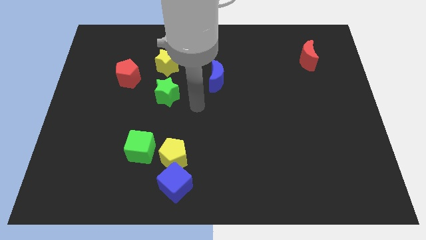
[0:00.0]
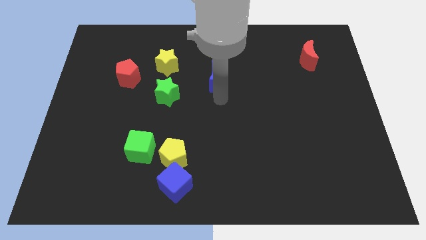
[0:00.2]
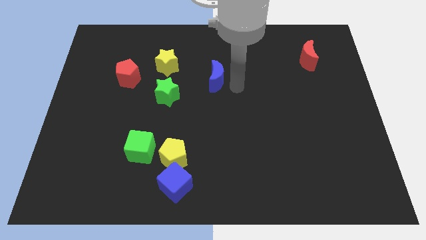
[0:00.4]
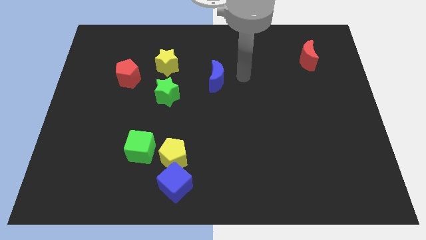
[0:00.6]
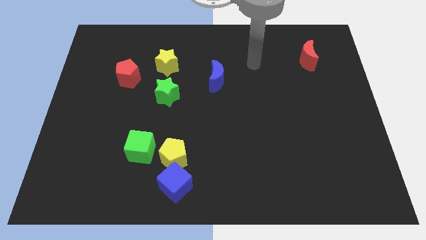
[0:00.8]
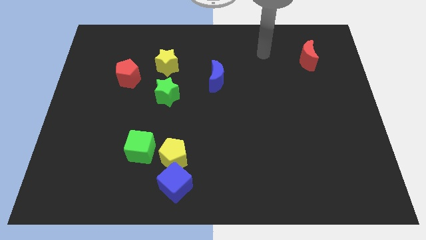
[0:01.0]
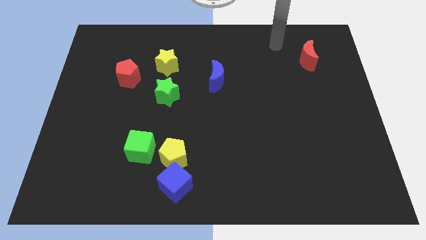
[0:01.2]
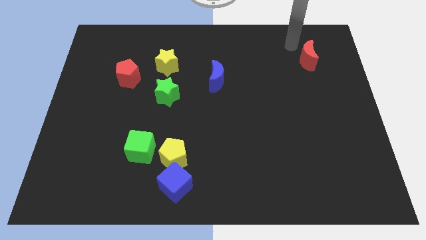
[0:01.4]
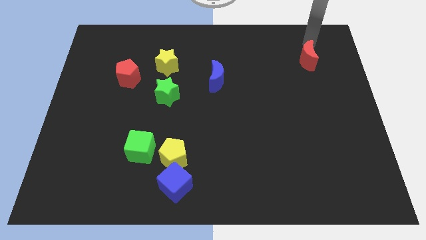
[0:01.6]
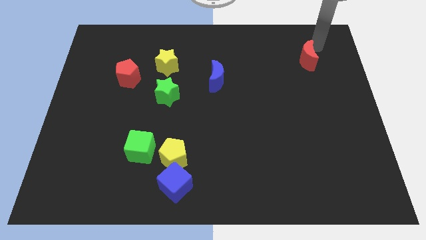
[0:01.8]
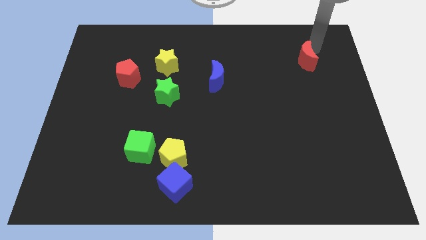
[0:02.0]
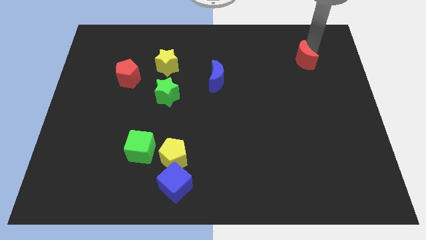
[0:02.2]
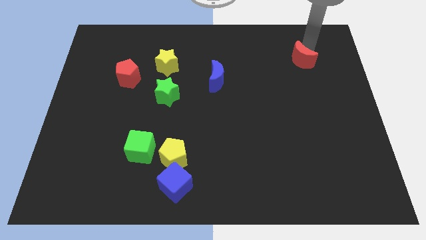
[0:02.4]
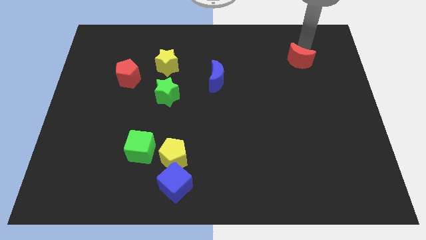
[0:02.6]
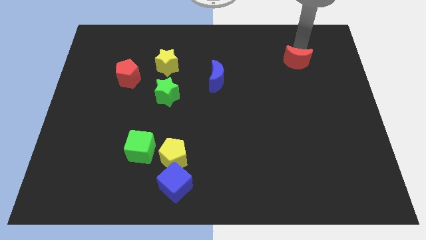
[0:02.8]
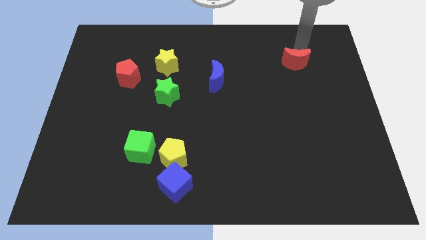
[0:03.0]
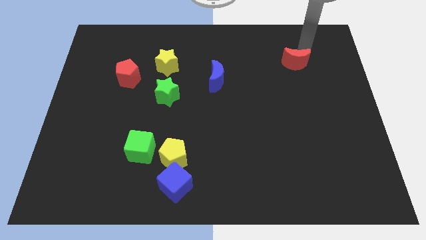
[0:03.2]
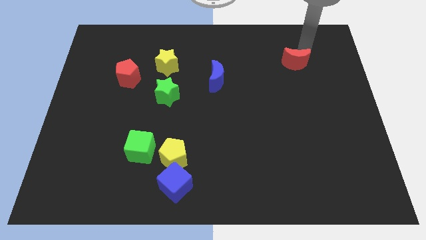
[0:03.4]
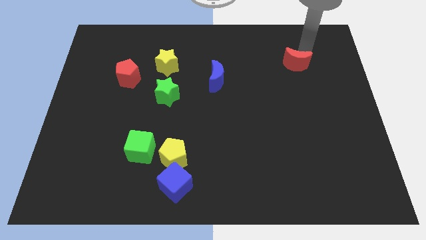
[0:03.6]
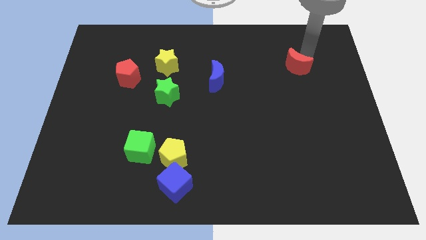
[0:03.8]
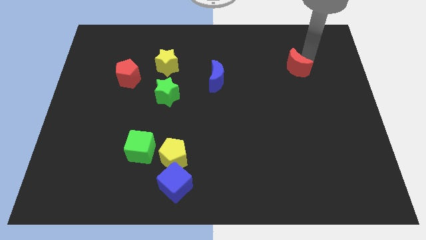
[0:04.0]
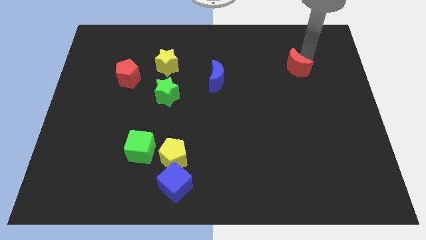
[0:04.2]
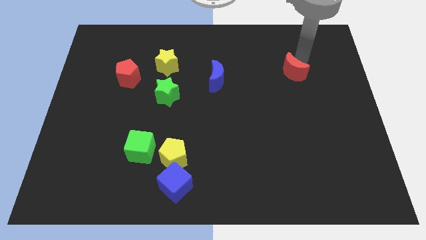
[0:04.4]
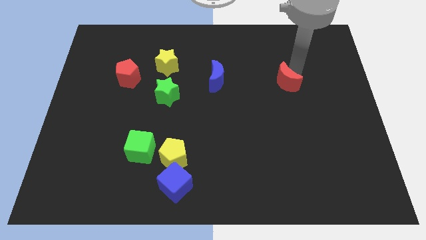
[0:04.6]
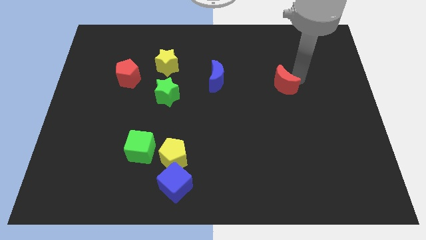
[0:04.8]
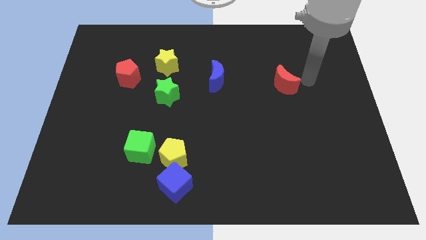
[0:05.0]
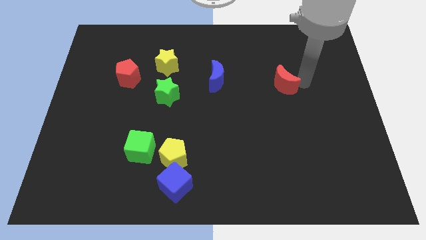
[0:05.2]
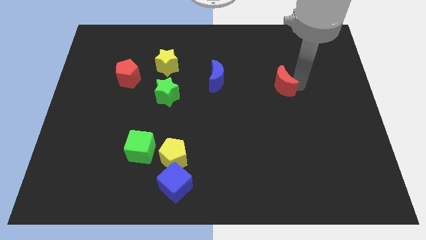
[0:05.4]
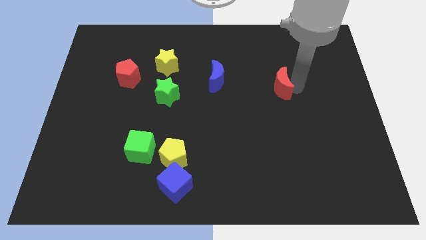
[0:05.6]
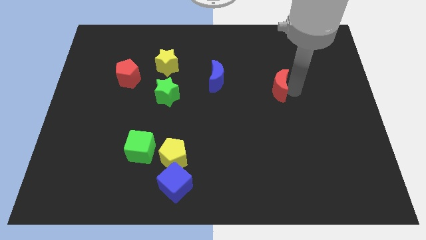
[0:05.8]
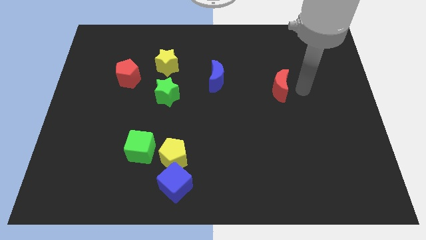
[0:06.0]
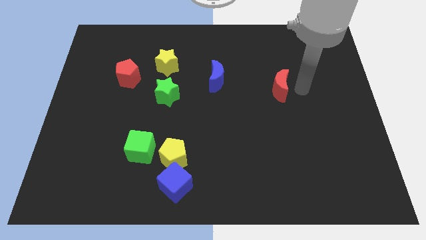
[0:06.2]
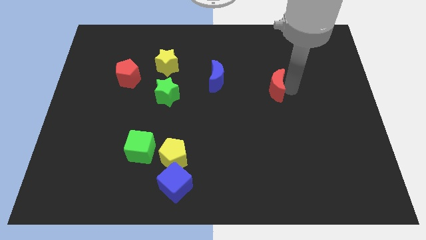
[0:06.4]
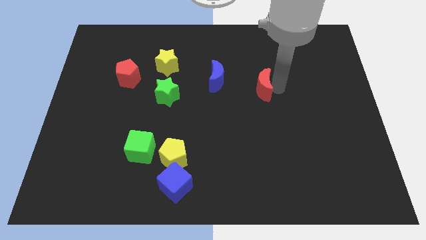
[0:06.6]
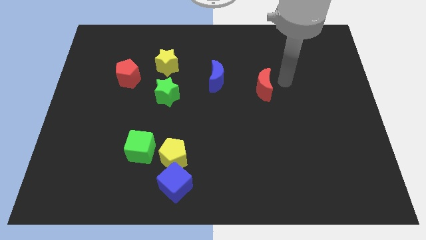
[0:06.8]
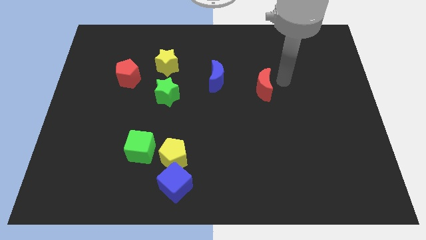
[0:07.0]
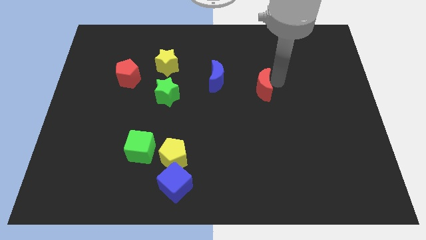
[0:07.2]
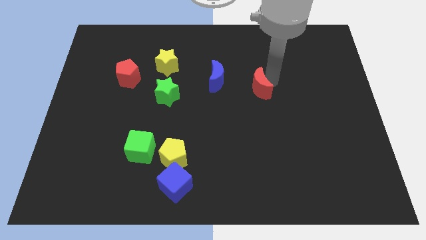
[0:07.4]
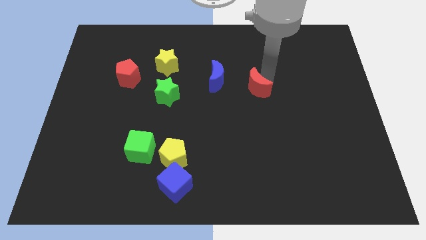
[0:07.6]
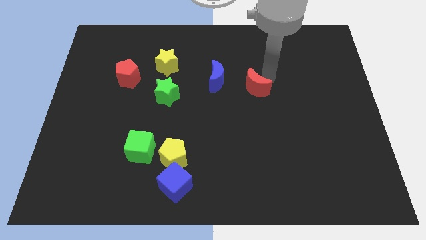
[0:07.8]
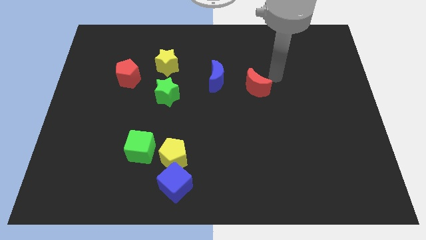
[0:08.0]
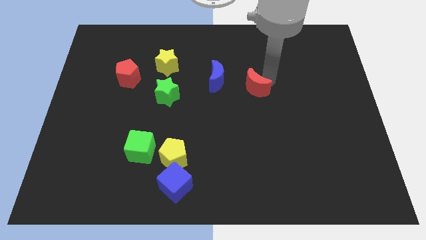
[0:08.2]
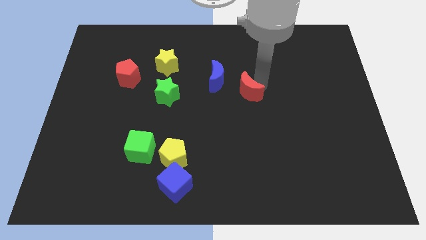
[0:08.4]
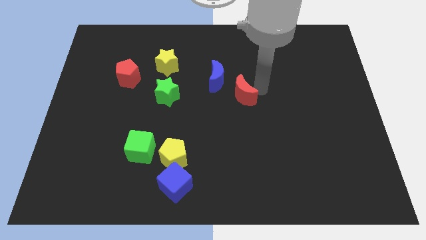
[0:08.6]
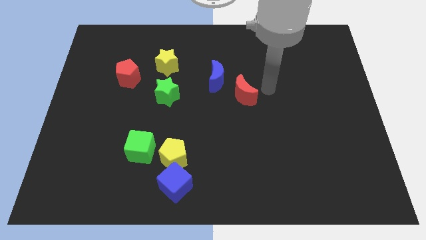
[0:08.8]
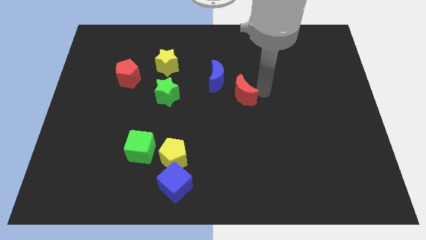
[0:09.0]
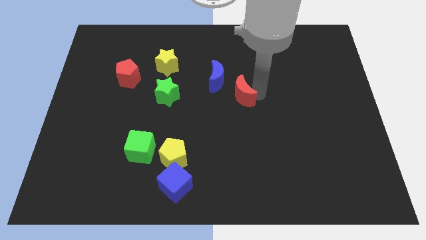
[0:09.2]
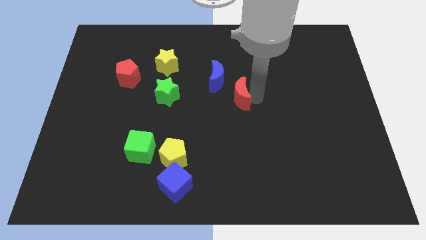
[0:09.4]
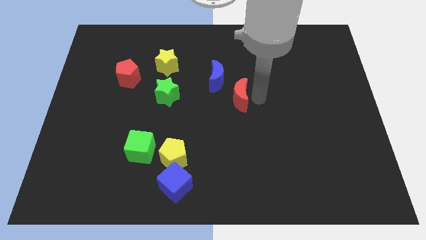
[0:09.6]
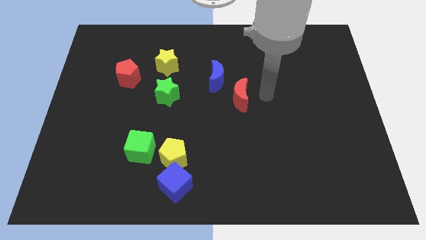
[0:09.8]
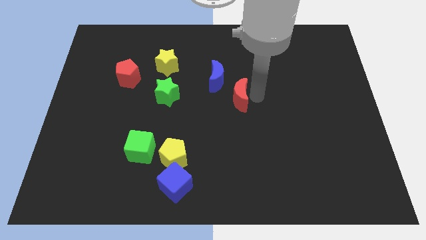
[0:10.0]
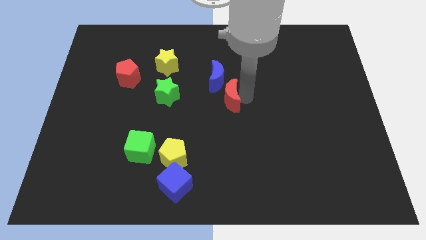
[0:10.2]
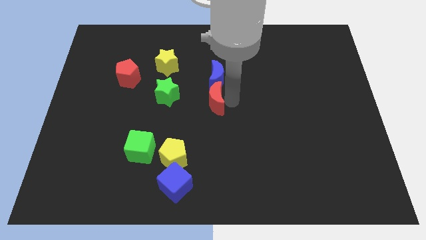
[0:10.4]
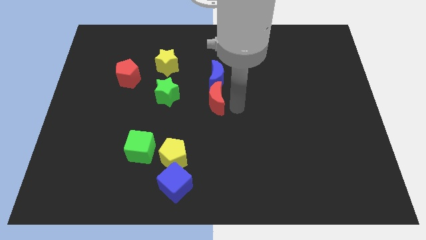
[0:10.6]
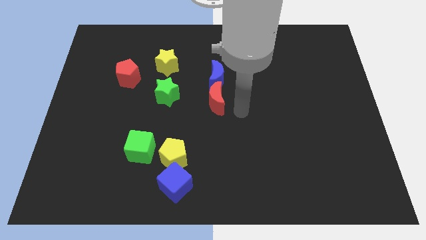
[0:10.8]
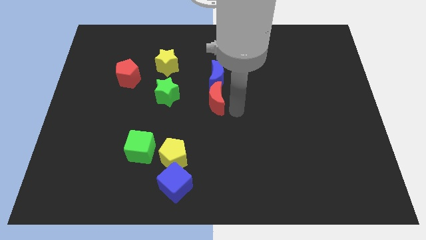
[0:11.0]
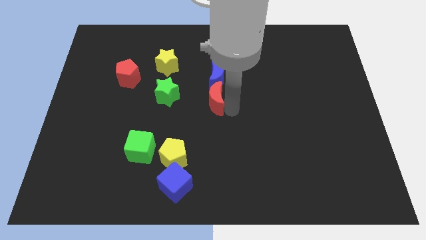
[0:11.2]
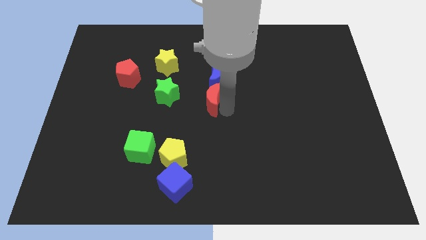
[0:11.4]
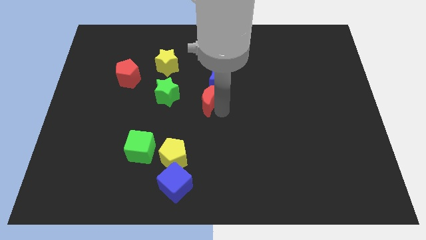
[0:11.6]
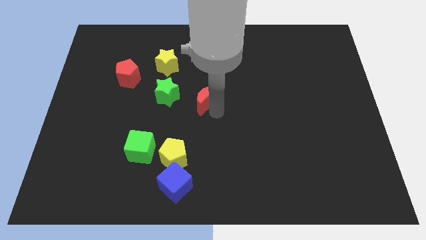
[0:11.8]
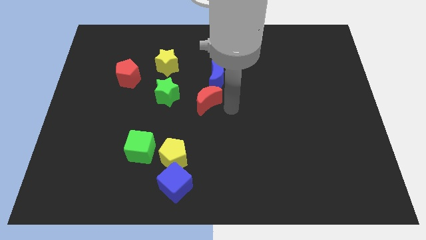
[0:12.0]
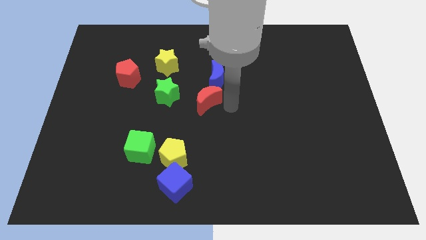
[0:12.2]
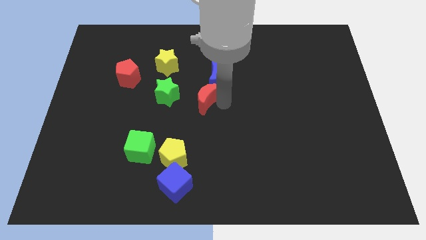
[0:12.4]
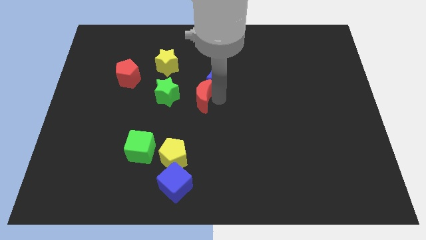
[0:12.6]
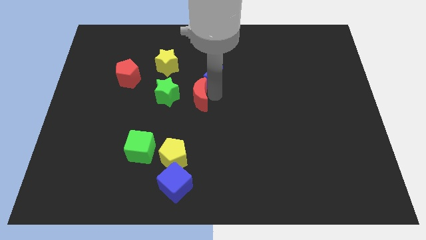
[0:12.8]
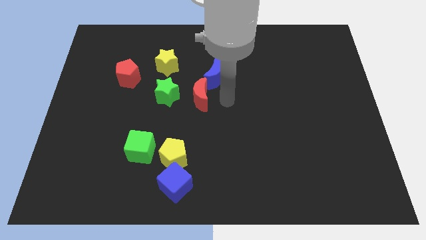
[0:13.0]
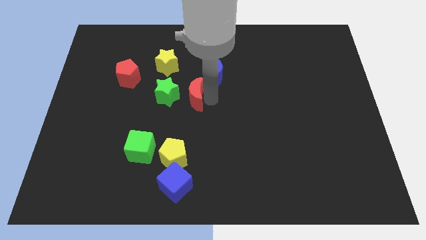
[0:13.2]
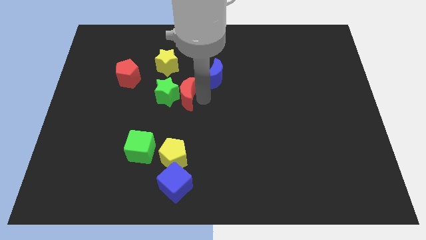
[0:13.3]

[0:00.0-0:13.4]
push the red moon to the green star

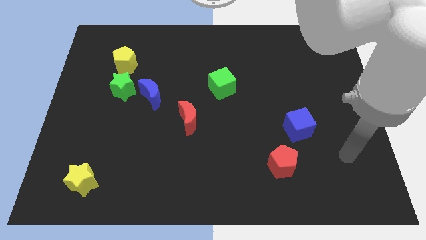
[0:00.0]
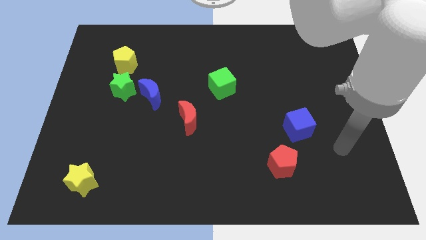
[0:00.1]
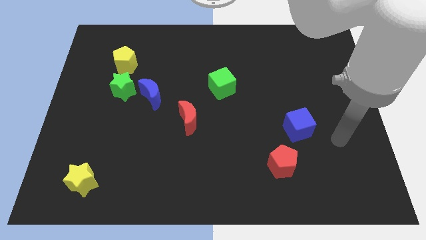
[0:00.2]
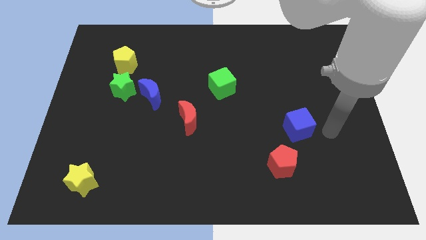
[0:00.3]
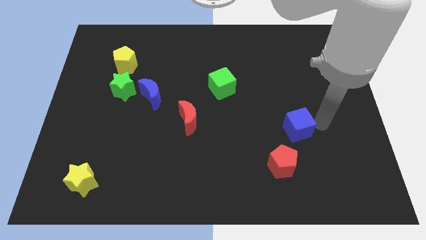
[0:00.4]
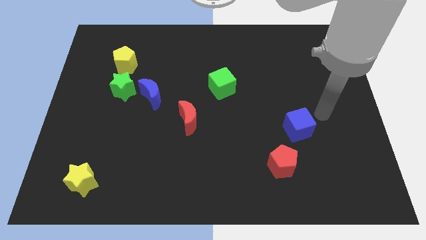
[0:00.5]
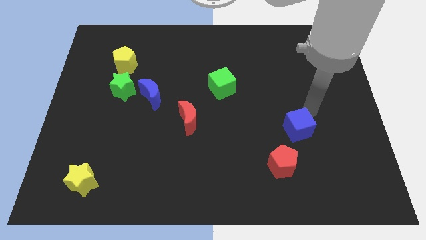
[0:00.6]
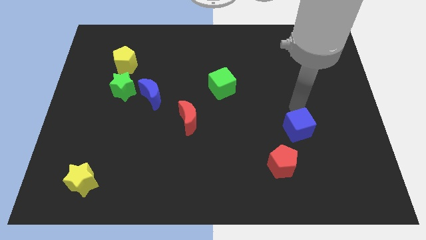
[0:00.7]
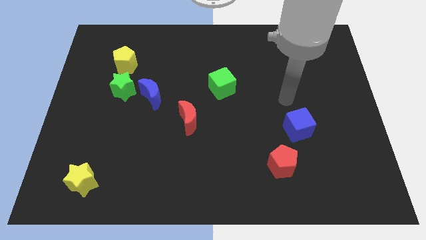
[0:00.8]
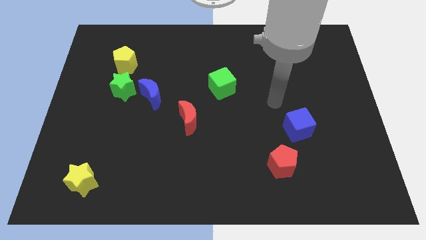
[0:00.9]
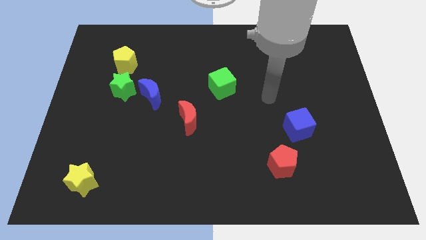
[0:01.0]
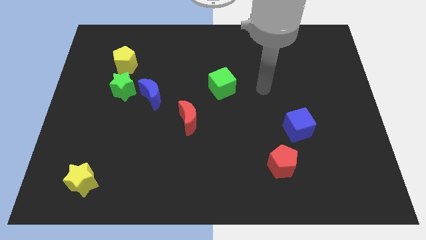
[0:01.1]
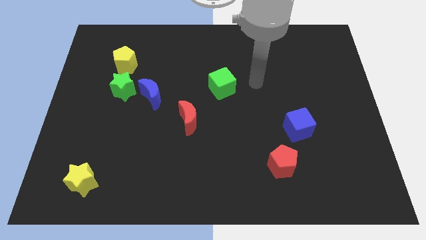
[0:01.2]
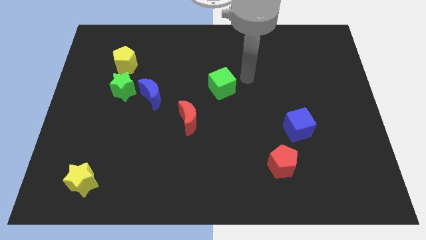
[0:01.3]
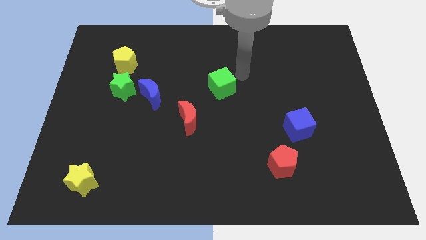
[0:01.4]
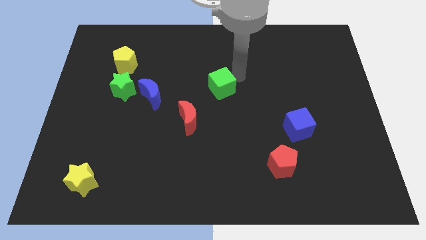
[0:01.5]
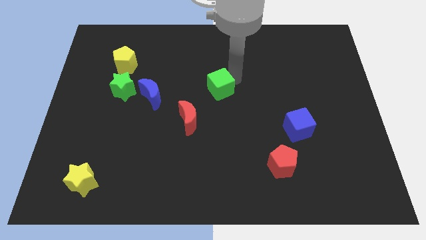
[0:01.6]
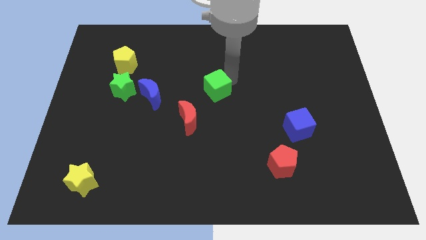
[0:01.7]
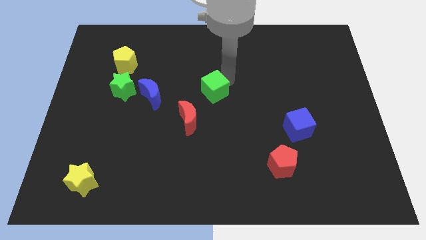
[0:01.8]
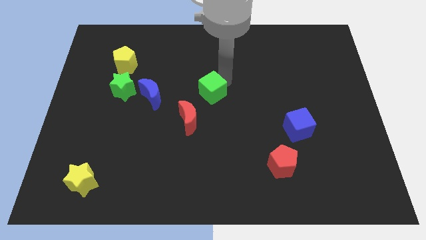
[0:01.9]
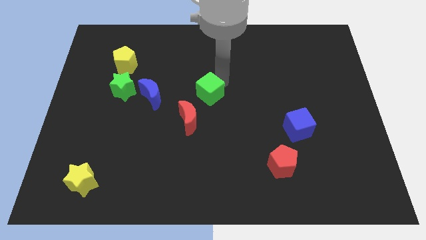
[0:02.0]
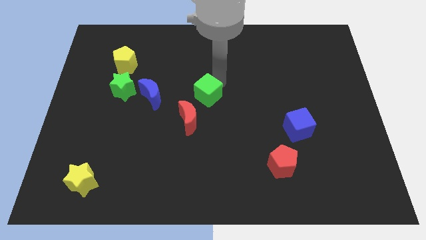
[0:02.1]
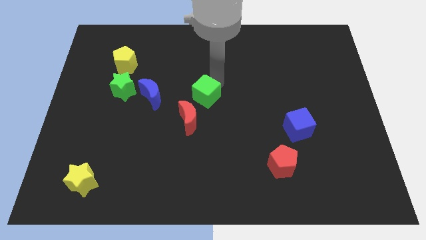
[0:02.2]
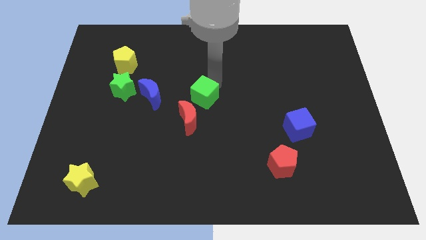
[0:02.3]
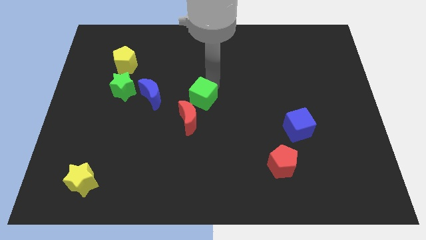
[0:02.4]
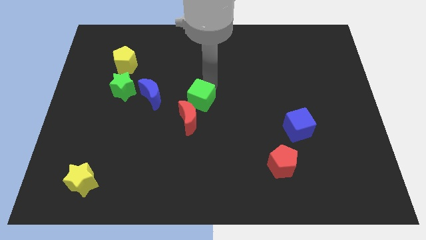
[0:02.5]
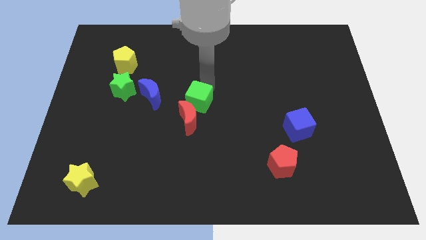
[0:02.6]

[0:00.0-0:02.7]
push the green cube close to the red moon
